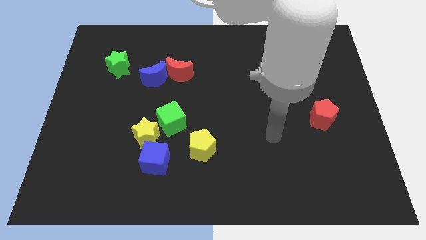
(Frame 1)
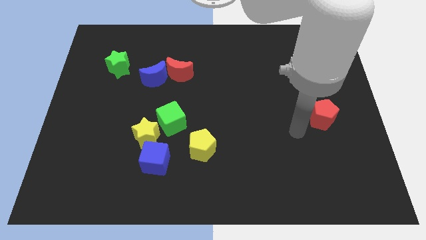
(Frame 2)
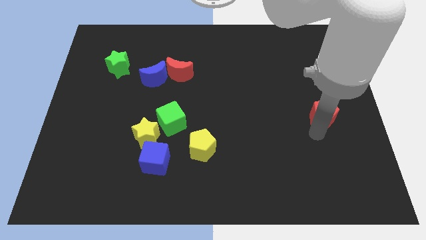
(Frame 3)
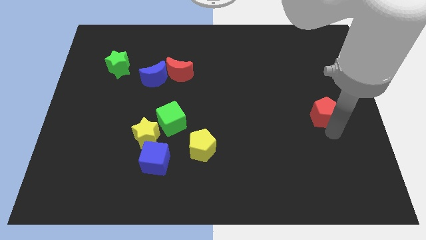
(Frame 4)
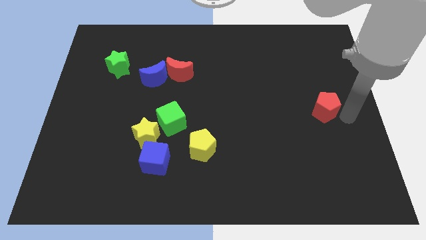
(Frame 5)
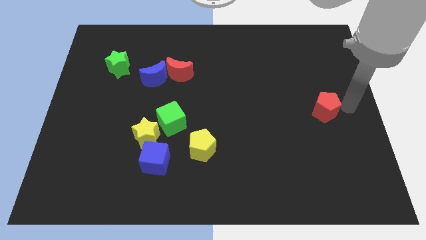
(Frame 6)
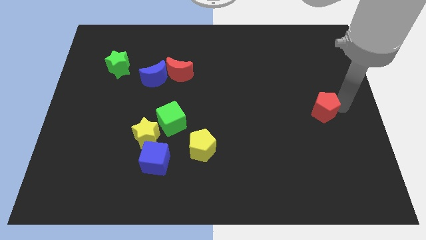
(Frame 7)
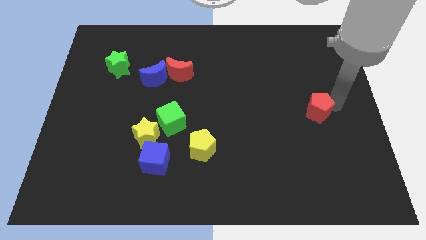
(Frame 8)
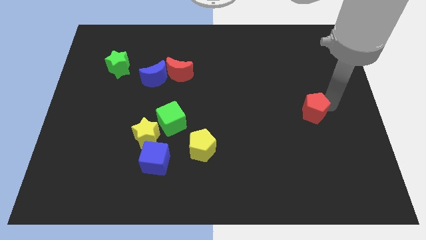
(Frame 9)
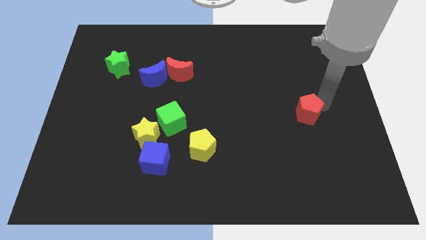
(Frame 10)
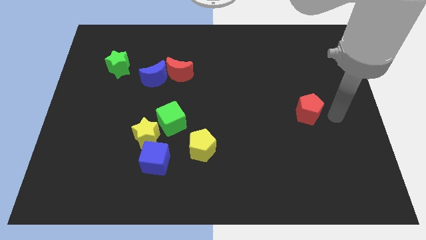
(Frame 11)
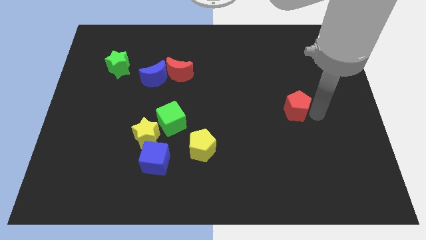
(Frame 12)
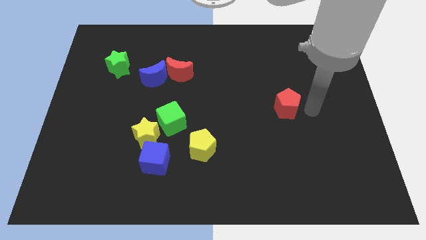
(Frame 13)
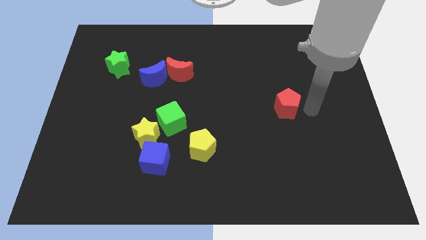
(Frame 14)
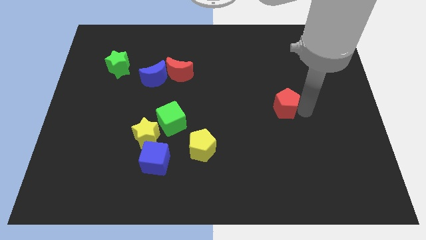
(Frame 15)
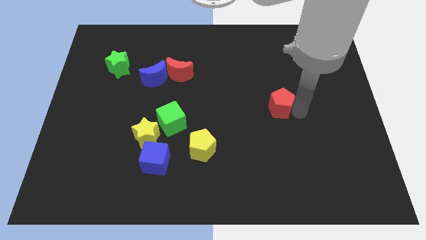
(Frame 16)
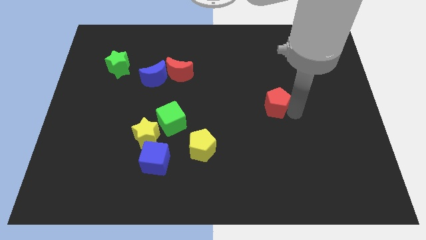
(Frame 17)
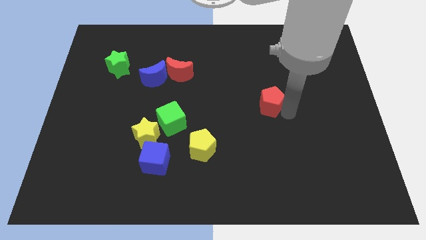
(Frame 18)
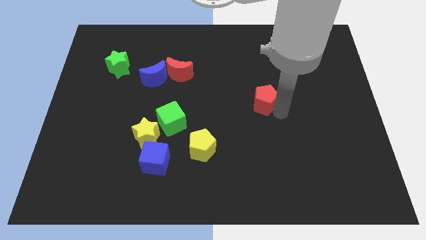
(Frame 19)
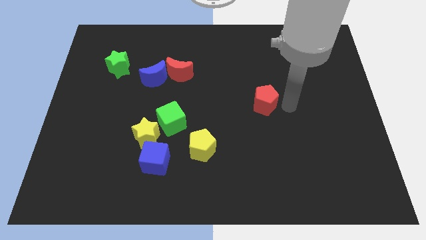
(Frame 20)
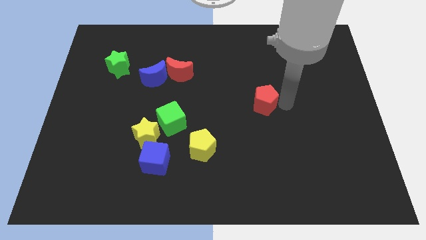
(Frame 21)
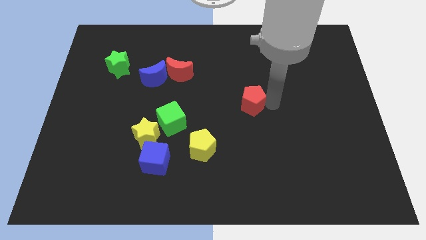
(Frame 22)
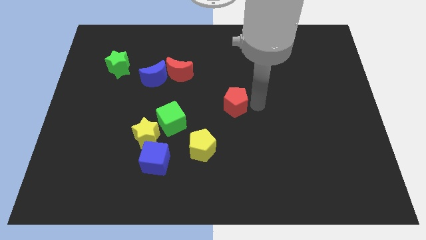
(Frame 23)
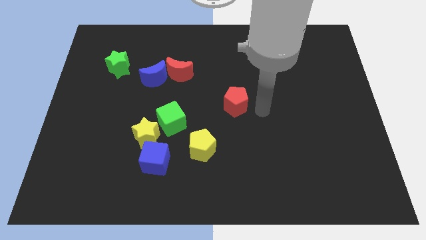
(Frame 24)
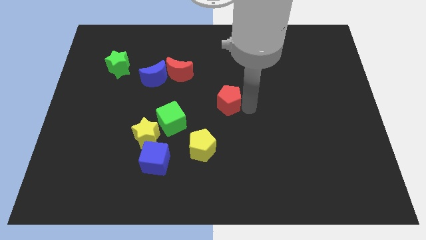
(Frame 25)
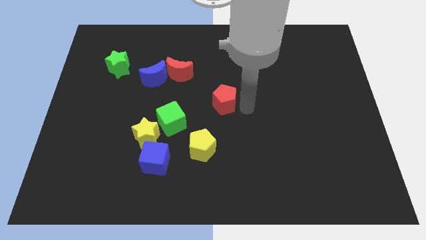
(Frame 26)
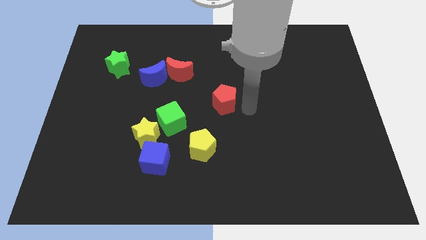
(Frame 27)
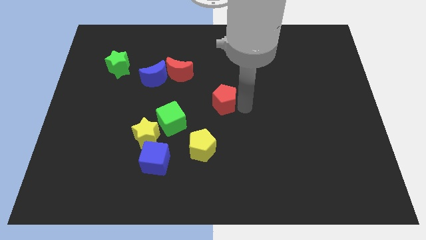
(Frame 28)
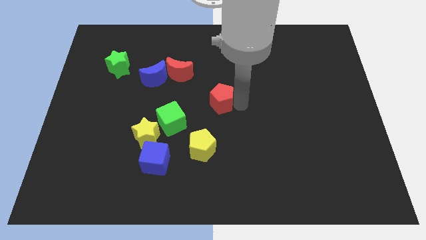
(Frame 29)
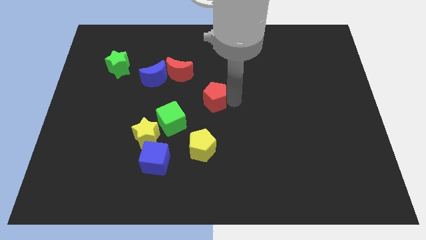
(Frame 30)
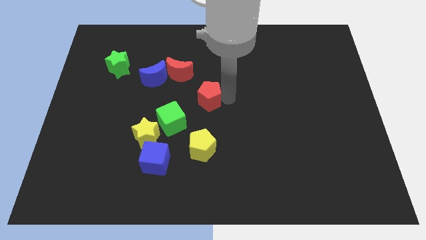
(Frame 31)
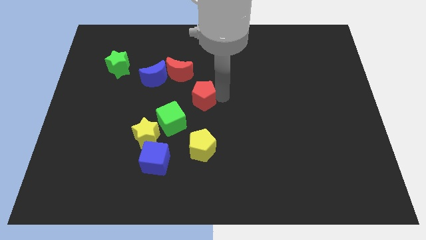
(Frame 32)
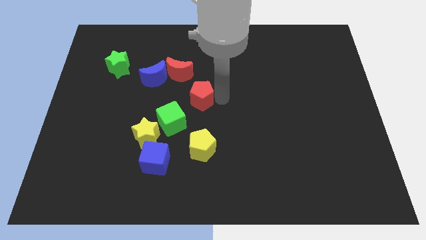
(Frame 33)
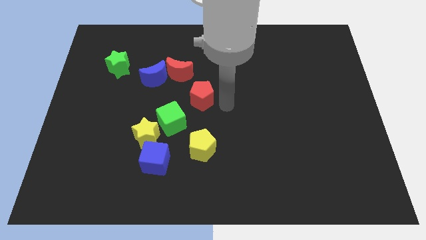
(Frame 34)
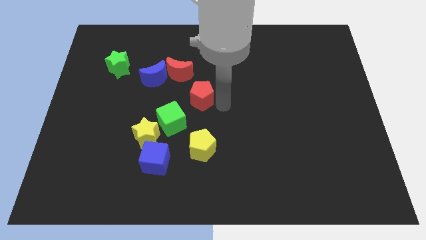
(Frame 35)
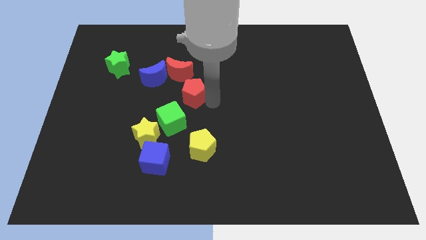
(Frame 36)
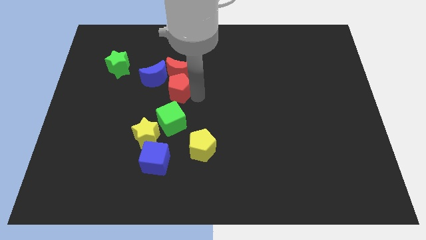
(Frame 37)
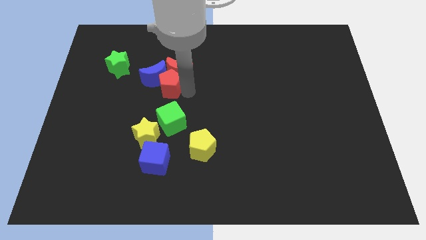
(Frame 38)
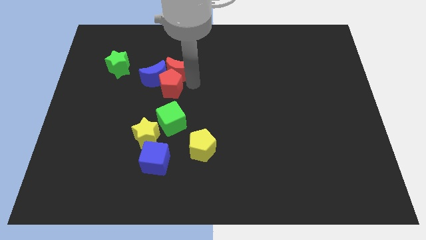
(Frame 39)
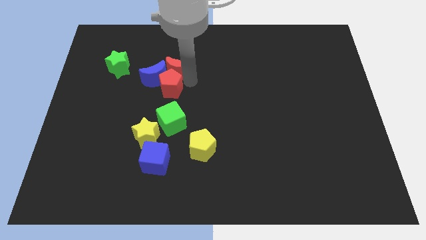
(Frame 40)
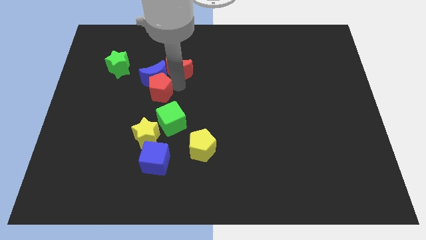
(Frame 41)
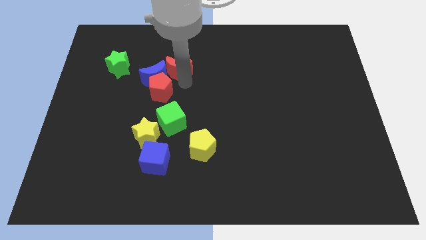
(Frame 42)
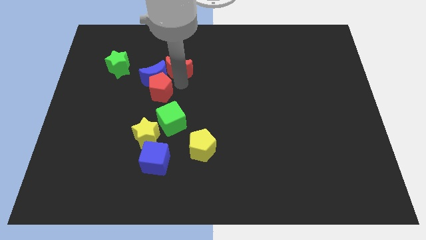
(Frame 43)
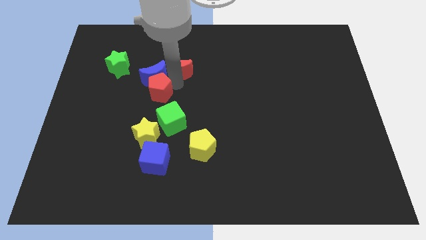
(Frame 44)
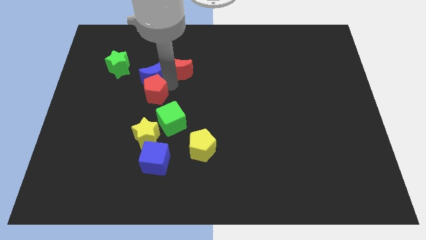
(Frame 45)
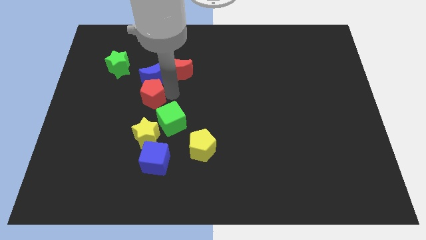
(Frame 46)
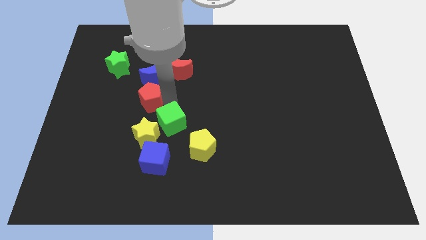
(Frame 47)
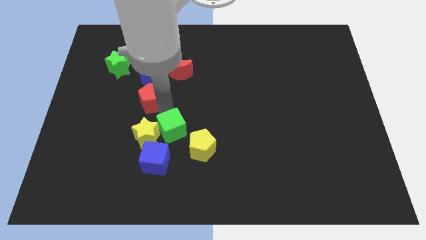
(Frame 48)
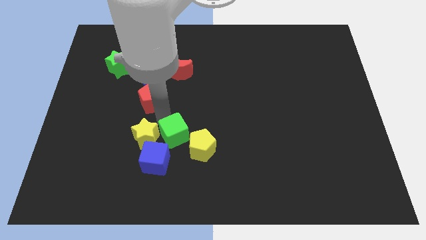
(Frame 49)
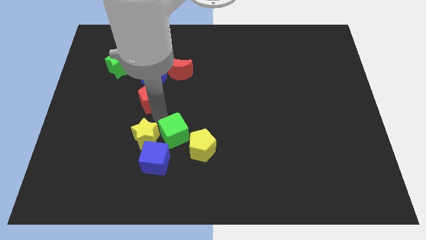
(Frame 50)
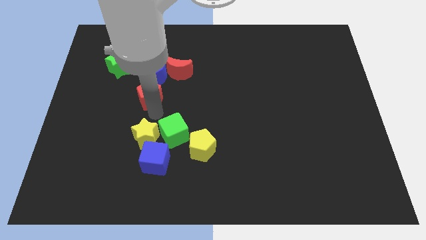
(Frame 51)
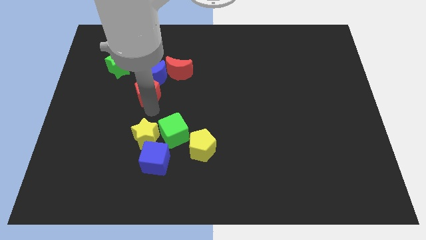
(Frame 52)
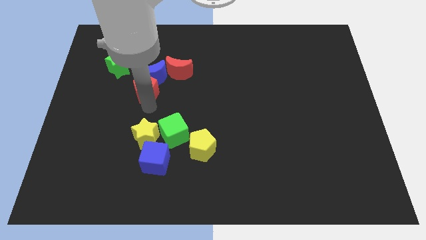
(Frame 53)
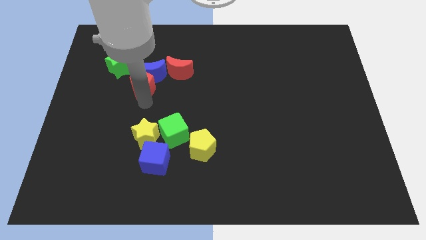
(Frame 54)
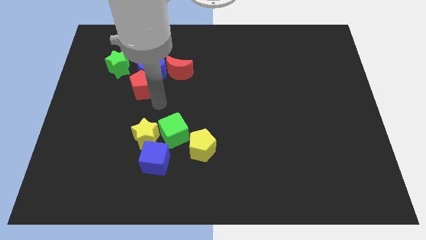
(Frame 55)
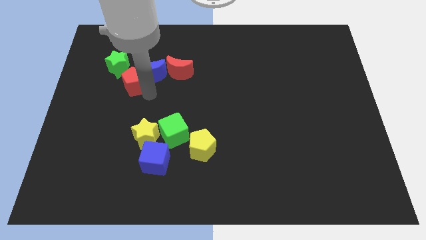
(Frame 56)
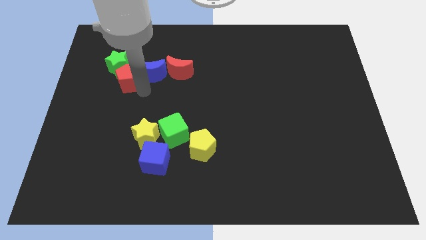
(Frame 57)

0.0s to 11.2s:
slide the red pentagon towards the green star

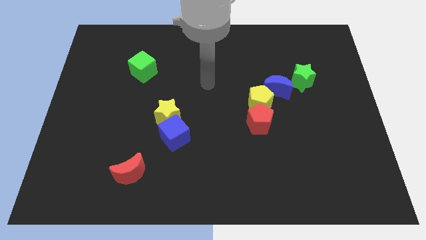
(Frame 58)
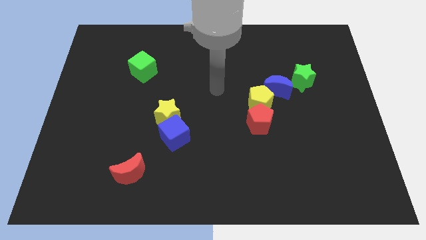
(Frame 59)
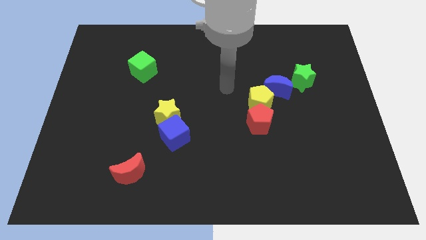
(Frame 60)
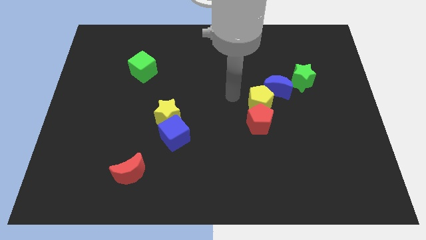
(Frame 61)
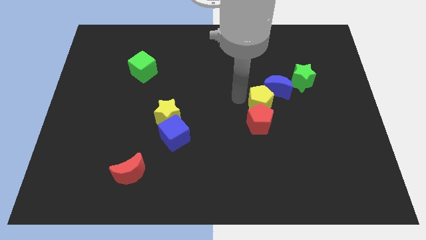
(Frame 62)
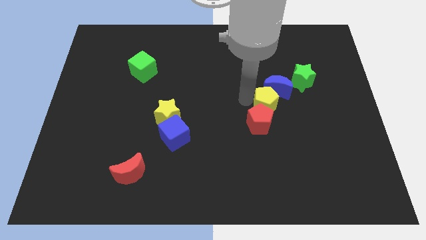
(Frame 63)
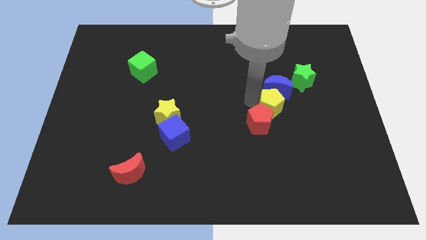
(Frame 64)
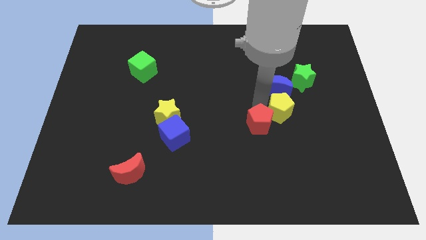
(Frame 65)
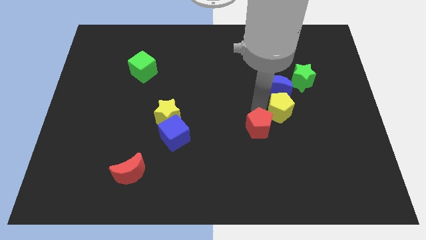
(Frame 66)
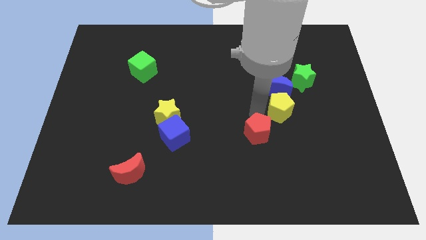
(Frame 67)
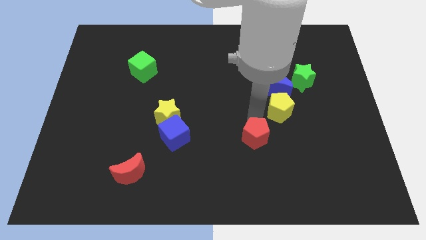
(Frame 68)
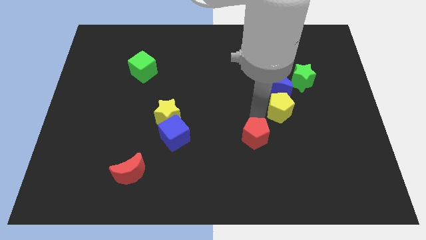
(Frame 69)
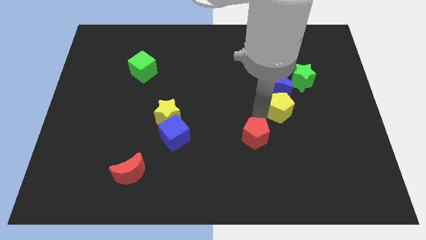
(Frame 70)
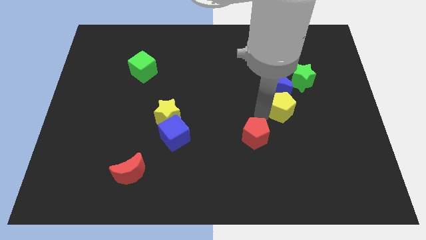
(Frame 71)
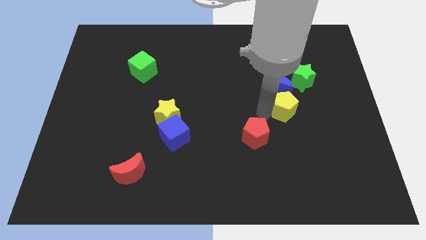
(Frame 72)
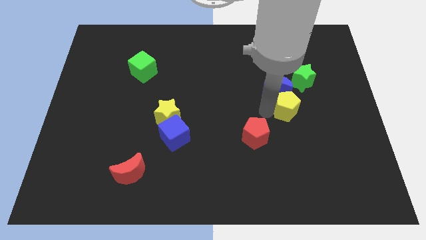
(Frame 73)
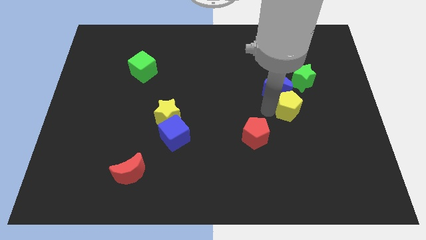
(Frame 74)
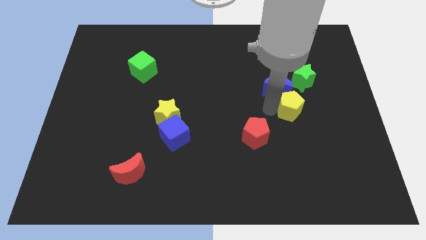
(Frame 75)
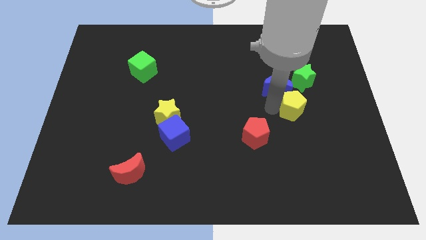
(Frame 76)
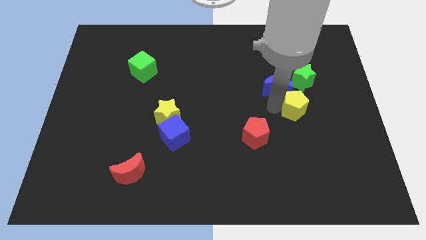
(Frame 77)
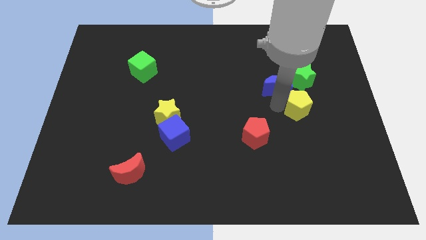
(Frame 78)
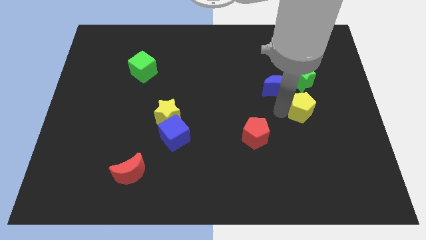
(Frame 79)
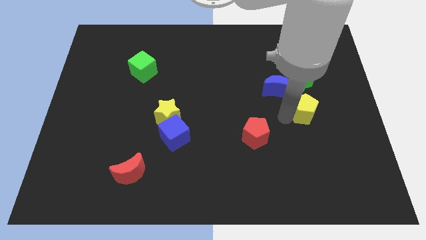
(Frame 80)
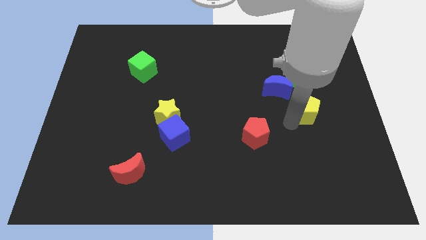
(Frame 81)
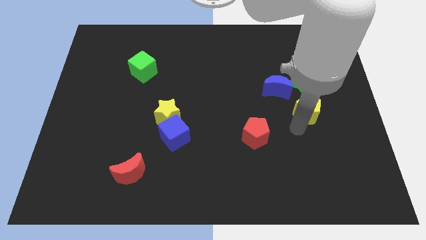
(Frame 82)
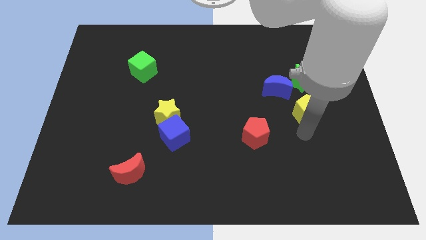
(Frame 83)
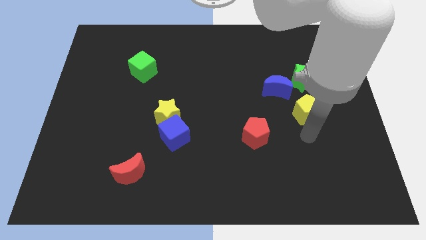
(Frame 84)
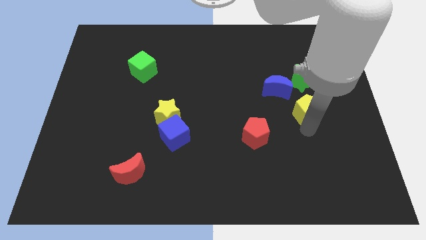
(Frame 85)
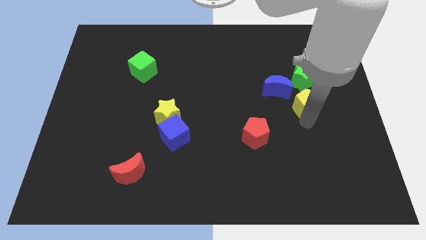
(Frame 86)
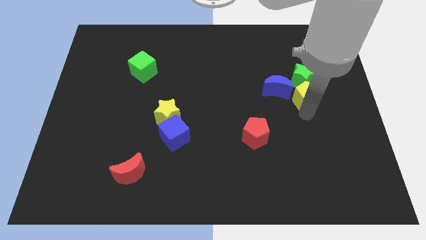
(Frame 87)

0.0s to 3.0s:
put the yellow pentagon towards the green star
